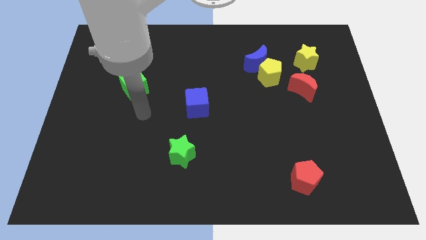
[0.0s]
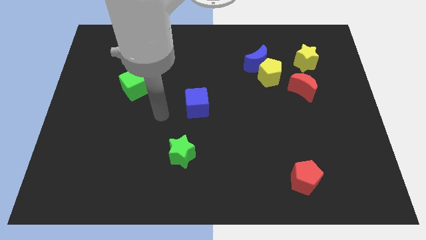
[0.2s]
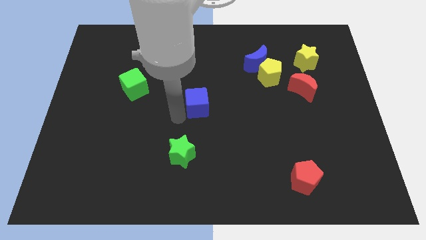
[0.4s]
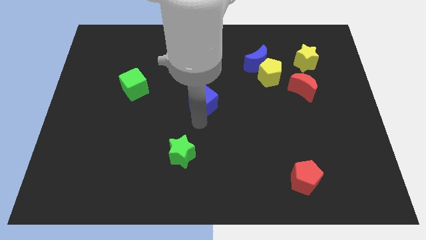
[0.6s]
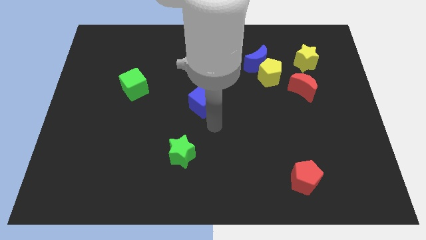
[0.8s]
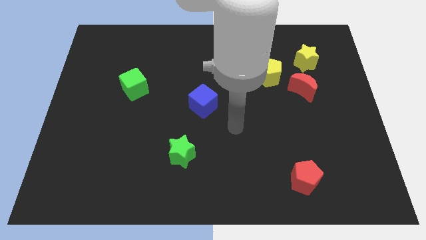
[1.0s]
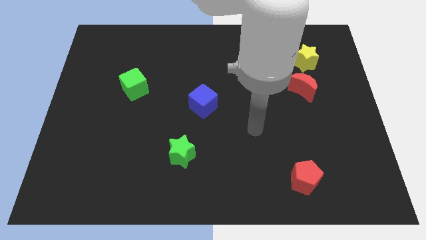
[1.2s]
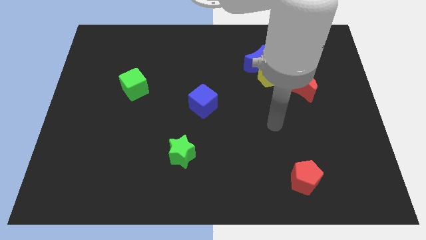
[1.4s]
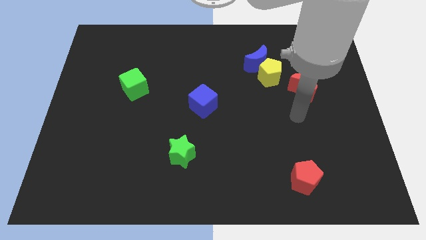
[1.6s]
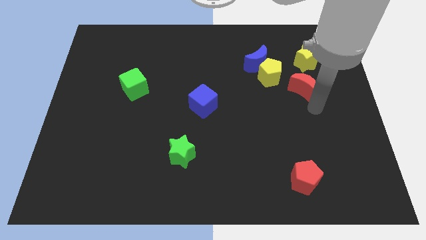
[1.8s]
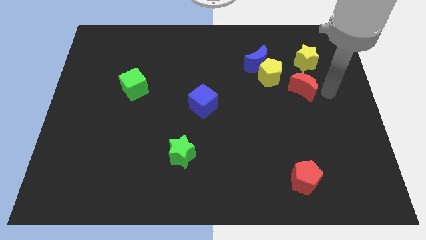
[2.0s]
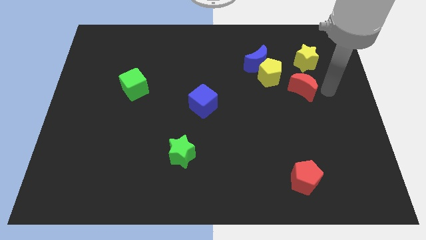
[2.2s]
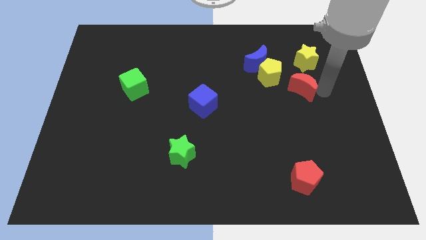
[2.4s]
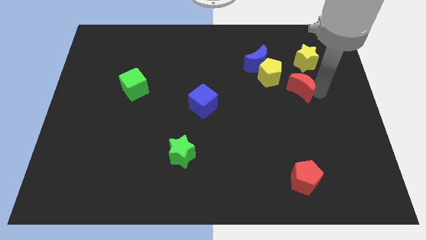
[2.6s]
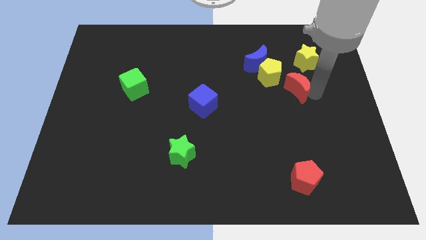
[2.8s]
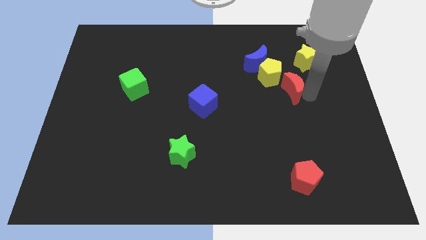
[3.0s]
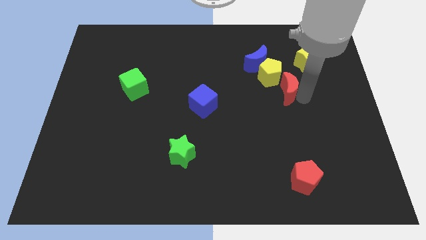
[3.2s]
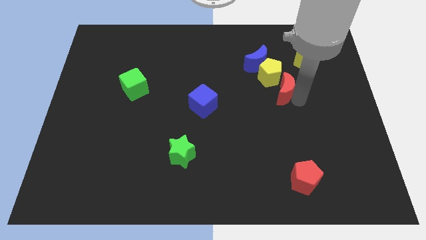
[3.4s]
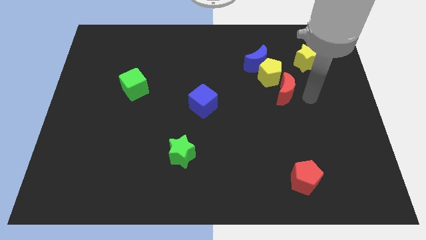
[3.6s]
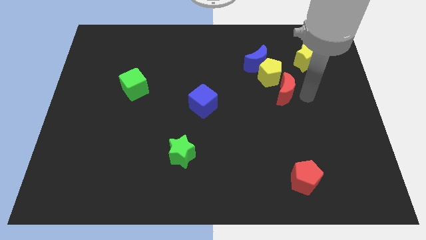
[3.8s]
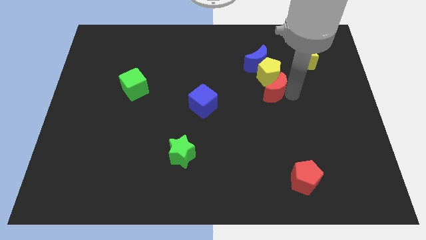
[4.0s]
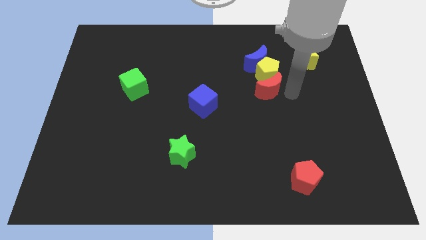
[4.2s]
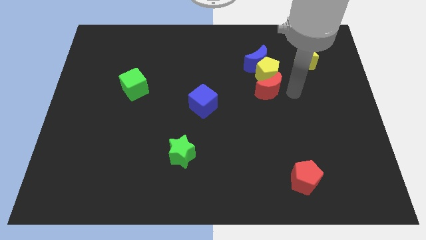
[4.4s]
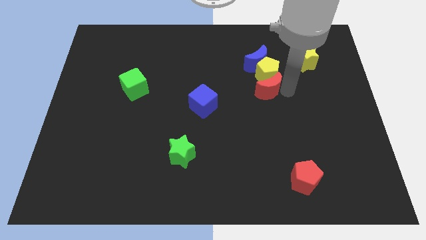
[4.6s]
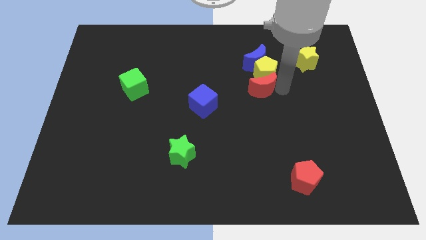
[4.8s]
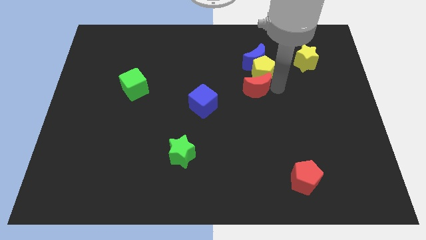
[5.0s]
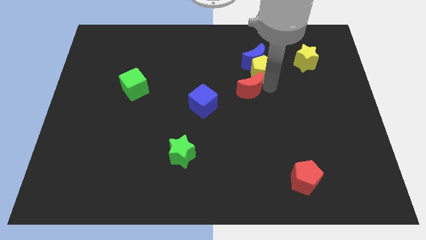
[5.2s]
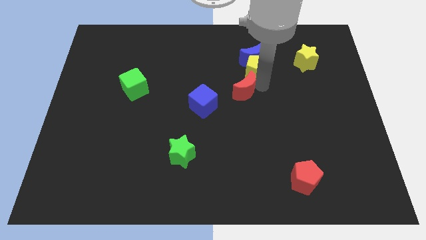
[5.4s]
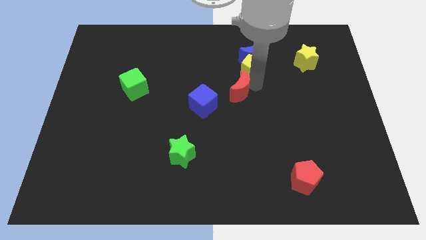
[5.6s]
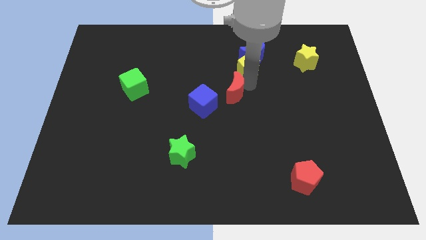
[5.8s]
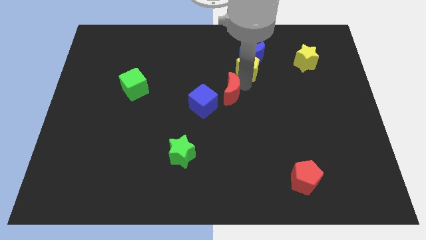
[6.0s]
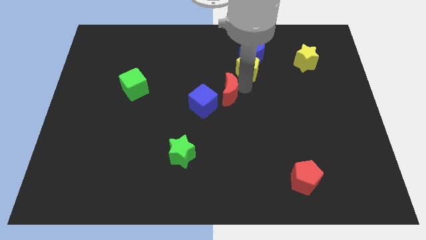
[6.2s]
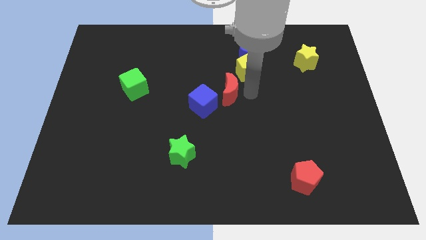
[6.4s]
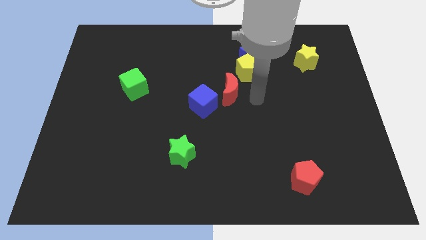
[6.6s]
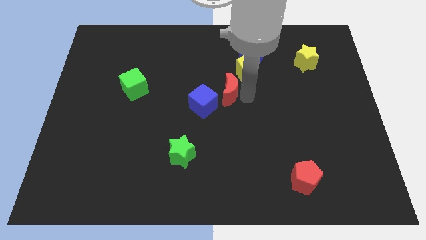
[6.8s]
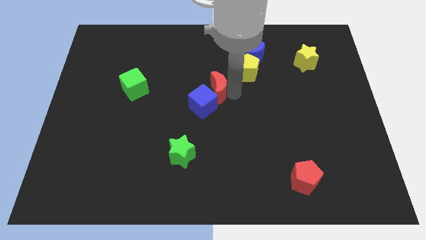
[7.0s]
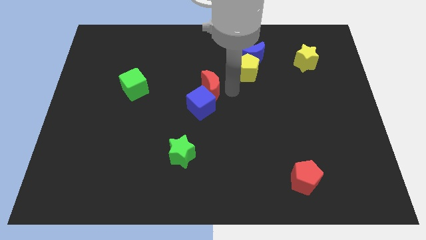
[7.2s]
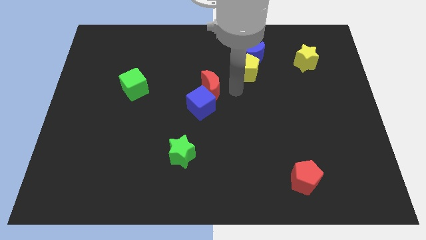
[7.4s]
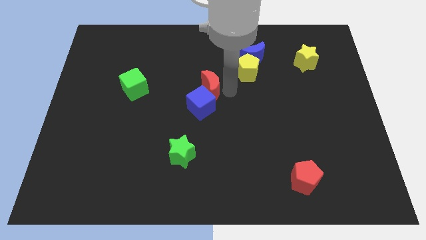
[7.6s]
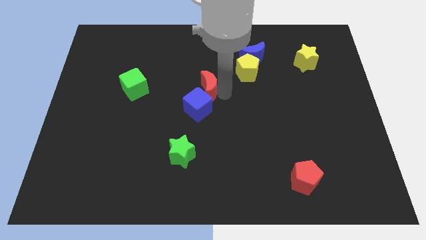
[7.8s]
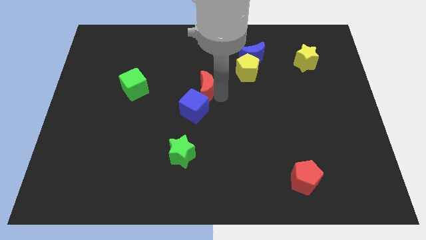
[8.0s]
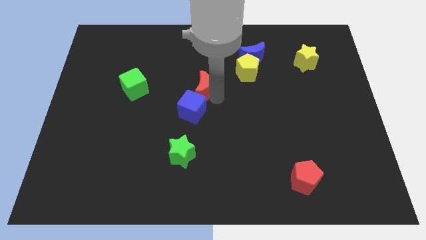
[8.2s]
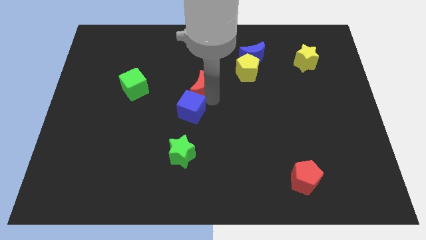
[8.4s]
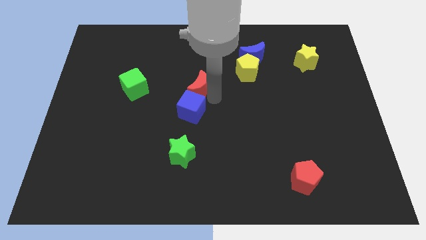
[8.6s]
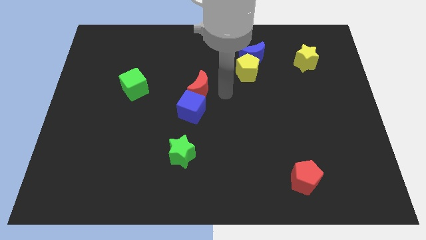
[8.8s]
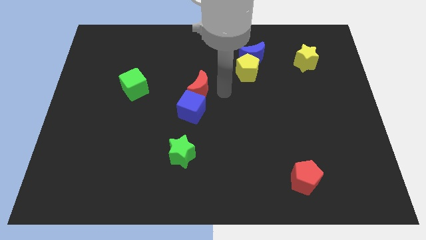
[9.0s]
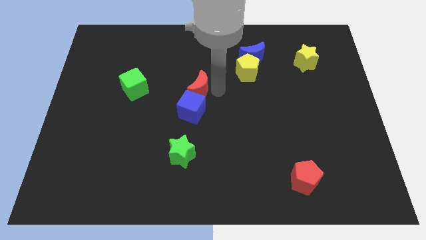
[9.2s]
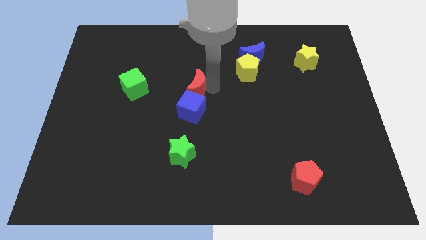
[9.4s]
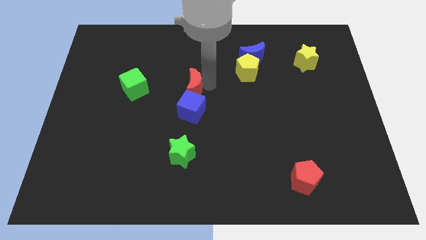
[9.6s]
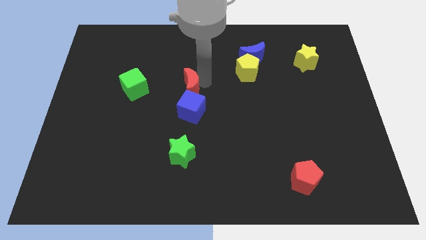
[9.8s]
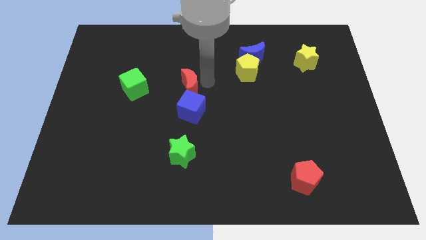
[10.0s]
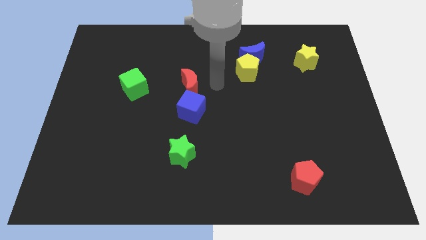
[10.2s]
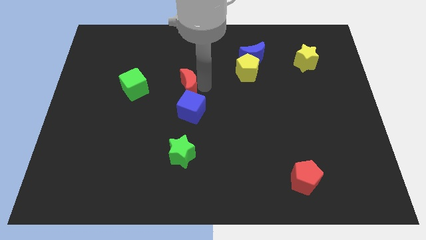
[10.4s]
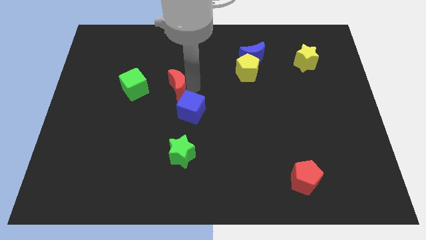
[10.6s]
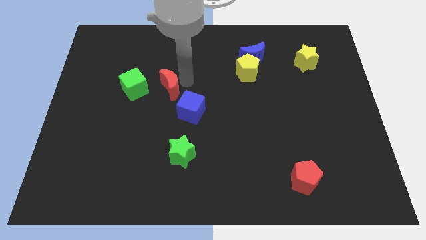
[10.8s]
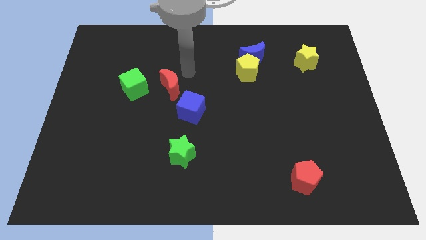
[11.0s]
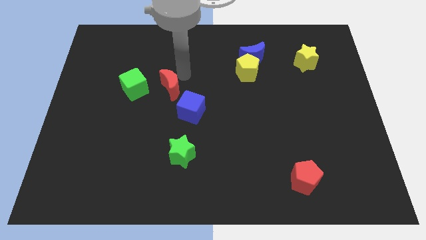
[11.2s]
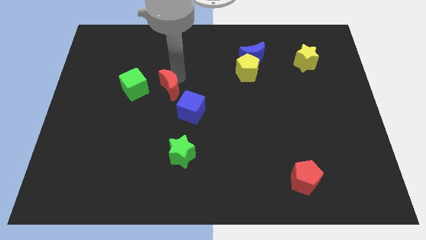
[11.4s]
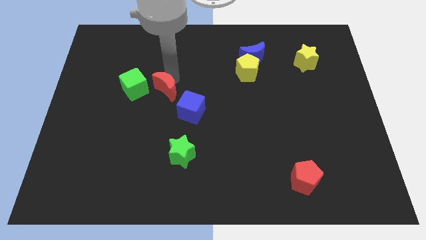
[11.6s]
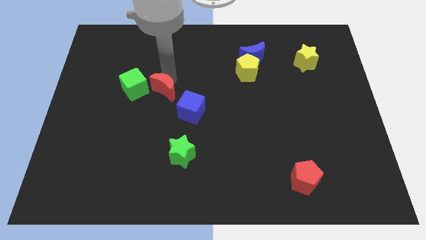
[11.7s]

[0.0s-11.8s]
put the red moon to the bottom right of the green cube

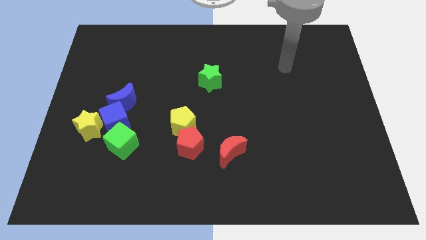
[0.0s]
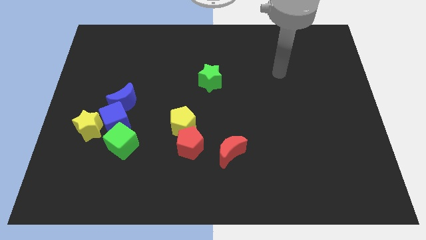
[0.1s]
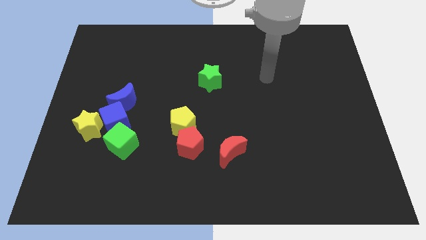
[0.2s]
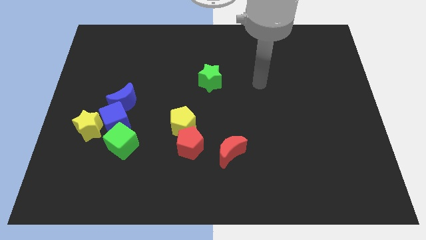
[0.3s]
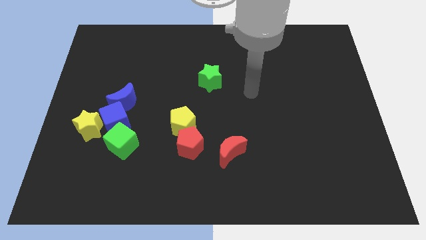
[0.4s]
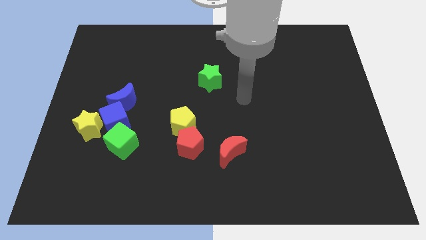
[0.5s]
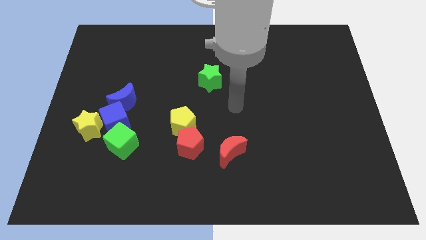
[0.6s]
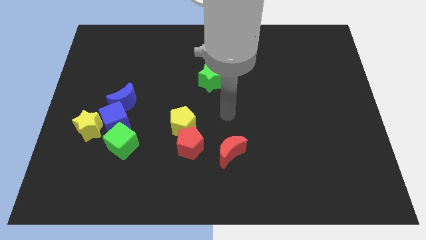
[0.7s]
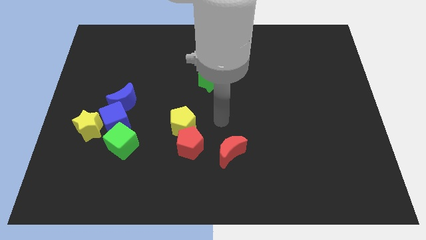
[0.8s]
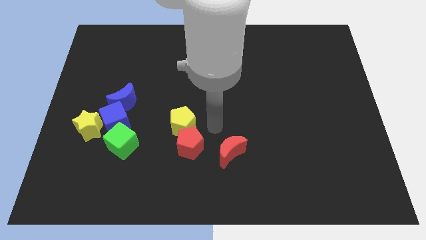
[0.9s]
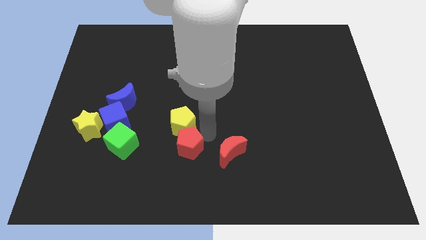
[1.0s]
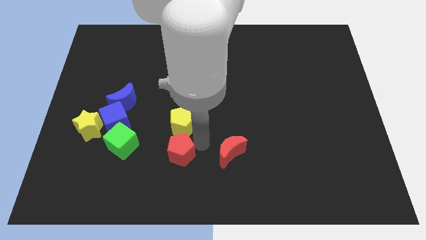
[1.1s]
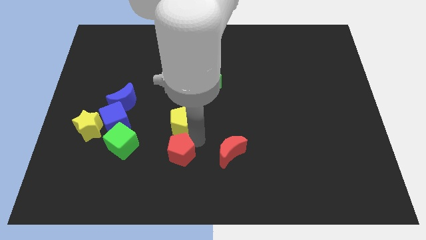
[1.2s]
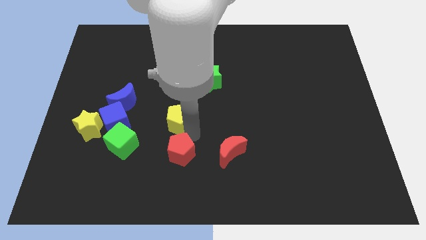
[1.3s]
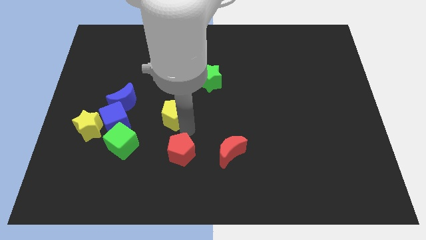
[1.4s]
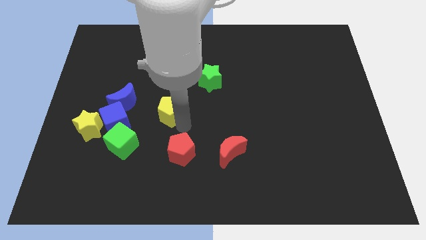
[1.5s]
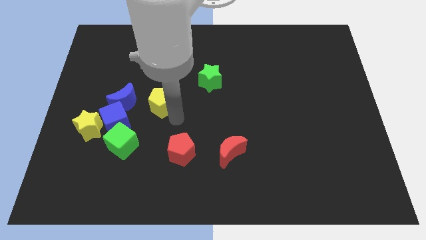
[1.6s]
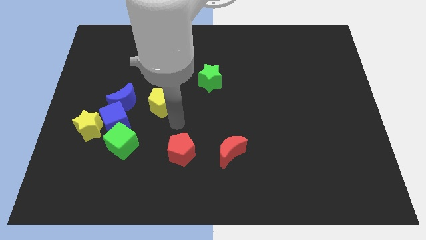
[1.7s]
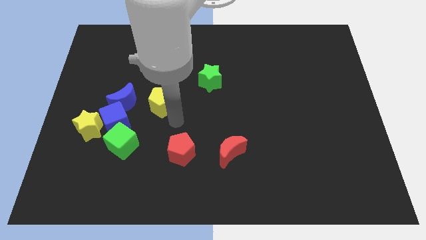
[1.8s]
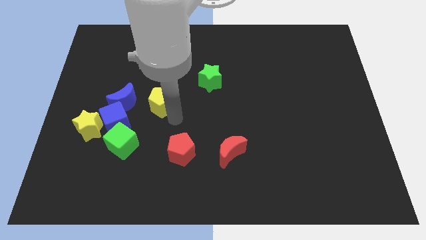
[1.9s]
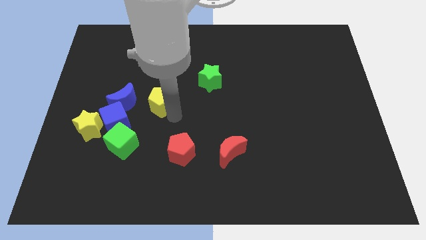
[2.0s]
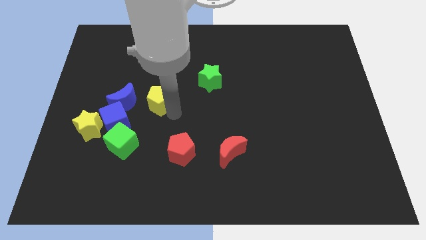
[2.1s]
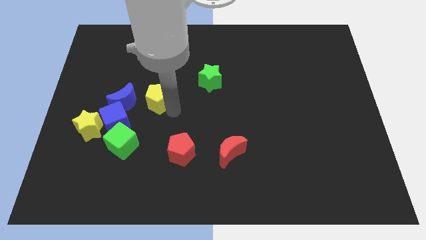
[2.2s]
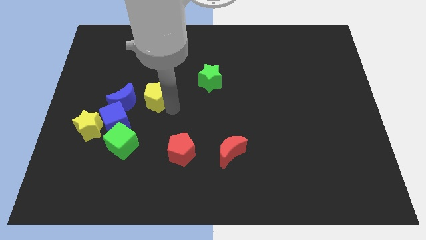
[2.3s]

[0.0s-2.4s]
move the yellow pentagon to the top right side of the blue moon
